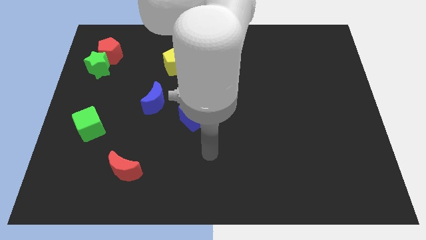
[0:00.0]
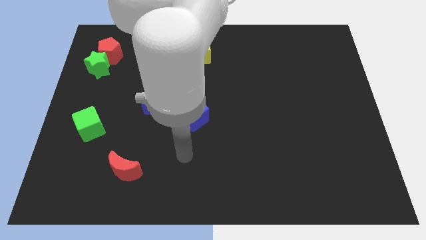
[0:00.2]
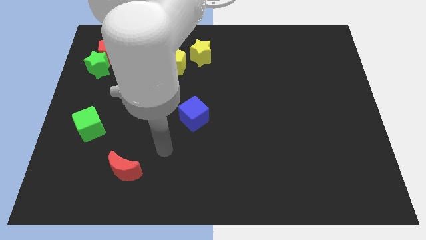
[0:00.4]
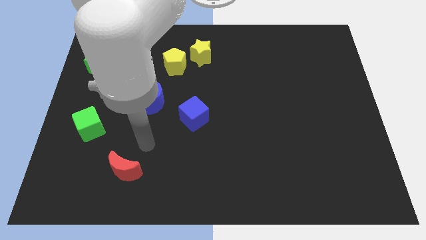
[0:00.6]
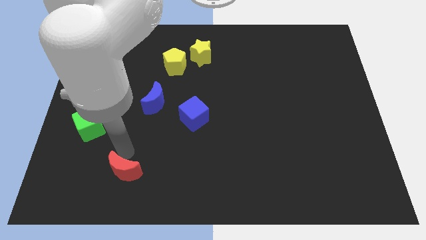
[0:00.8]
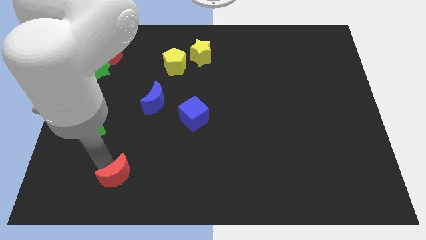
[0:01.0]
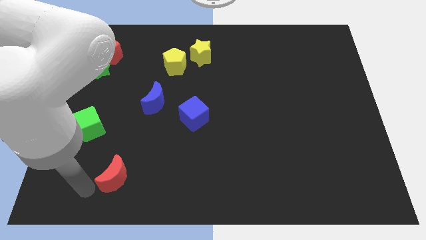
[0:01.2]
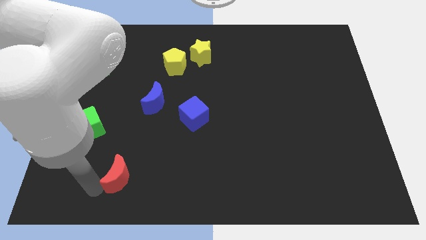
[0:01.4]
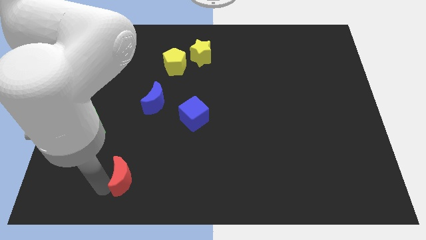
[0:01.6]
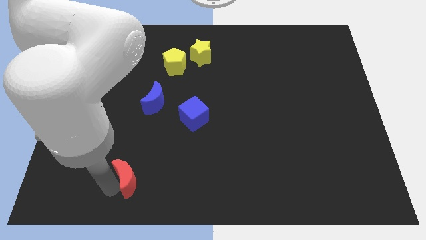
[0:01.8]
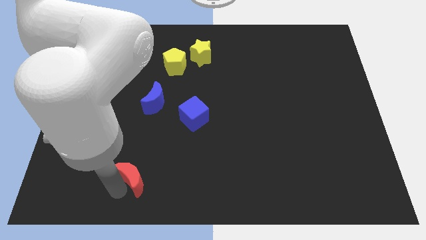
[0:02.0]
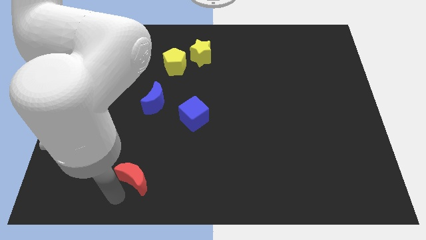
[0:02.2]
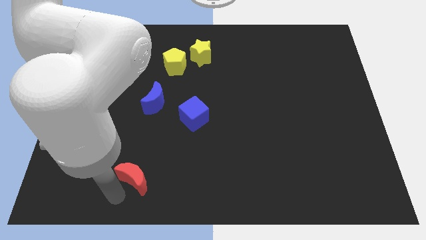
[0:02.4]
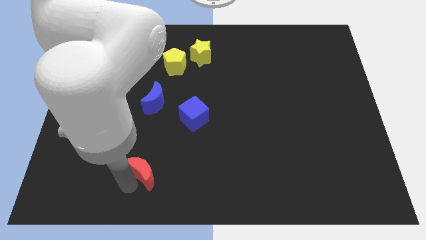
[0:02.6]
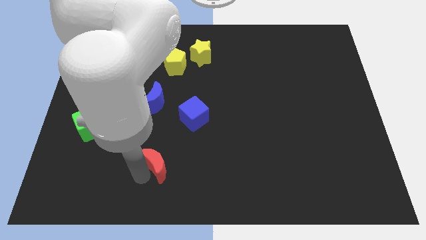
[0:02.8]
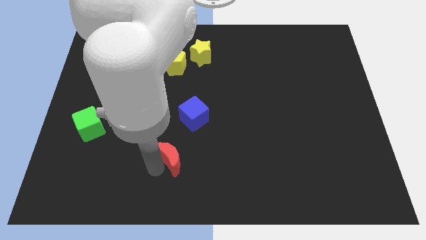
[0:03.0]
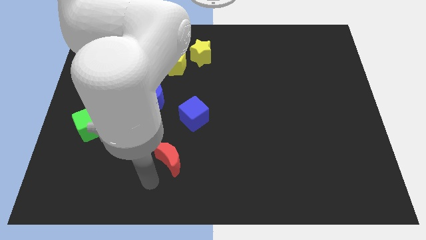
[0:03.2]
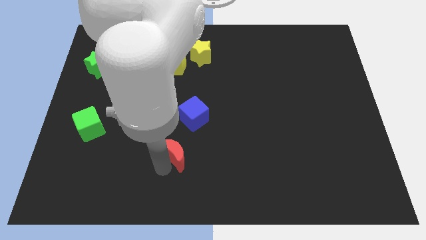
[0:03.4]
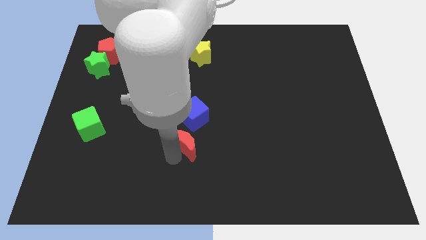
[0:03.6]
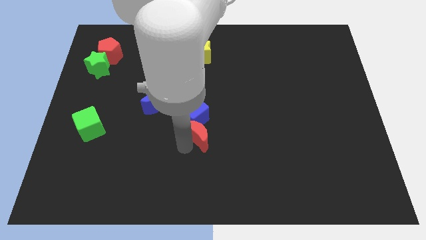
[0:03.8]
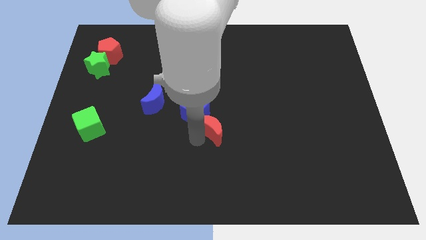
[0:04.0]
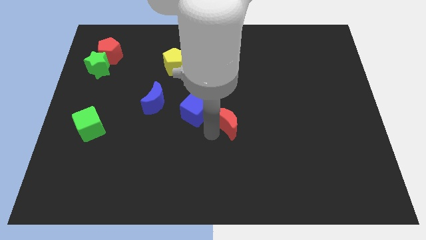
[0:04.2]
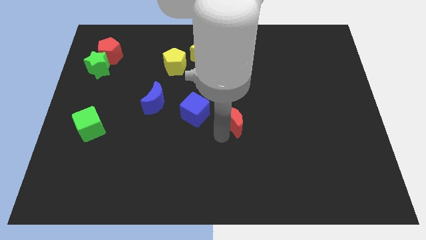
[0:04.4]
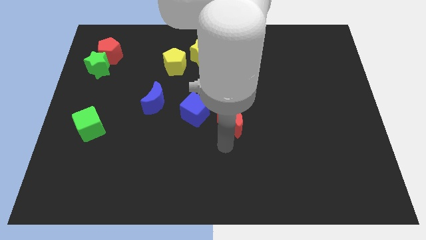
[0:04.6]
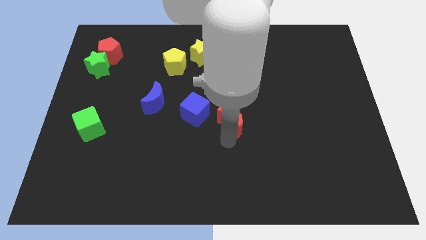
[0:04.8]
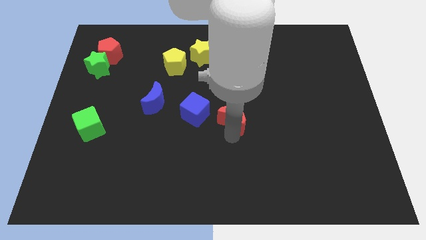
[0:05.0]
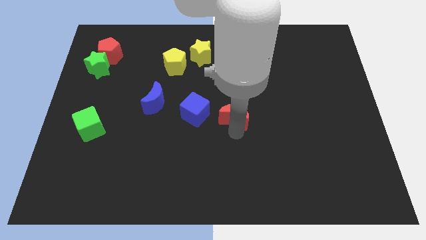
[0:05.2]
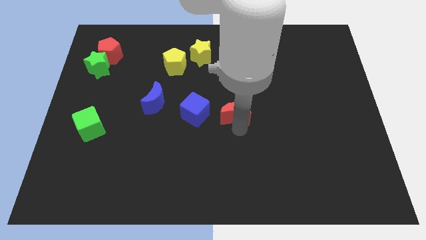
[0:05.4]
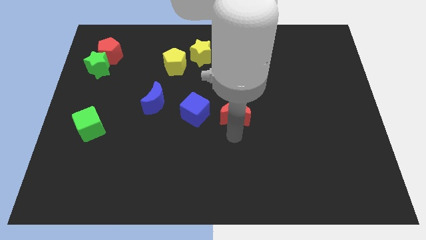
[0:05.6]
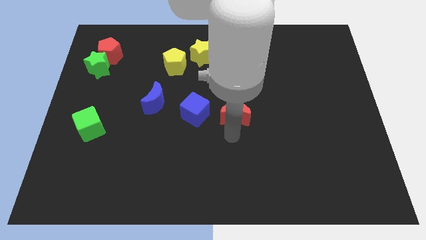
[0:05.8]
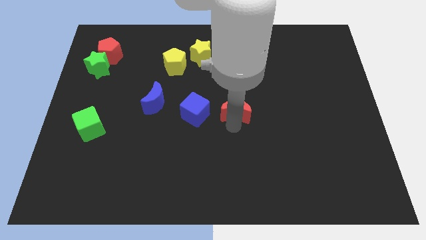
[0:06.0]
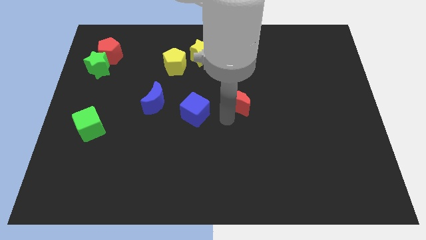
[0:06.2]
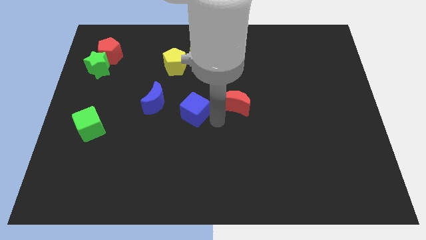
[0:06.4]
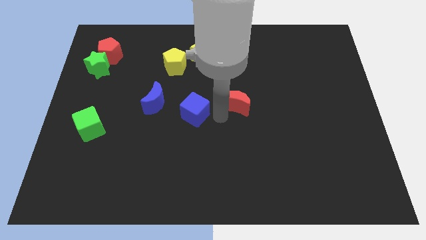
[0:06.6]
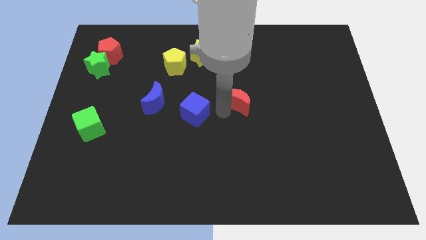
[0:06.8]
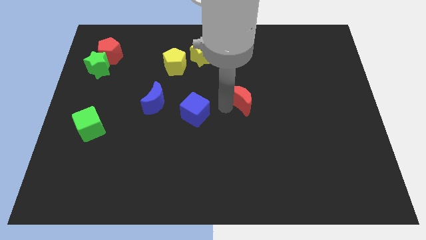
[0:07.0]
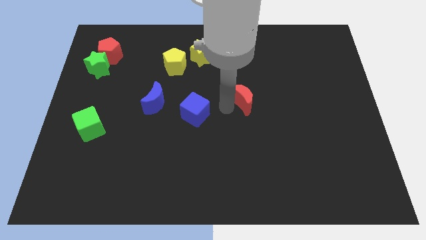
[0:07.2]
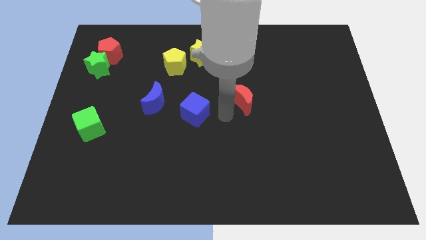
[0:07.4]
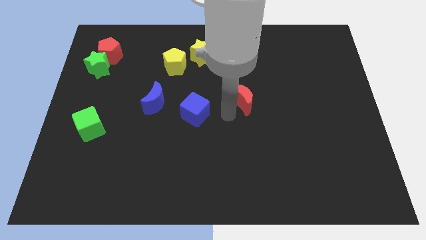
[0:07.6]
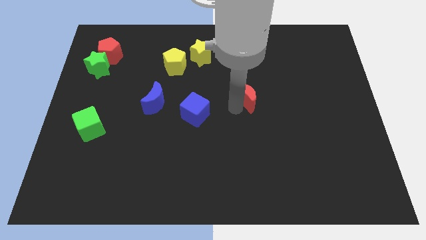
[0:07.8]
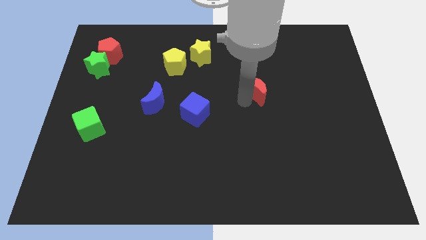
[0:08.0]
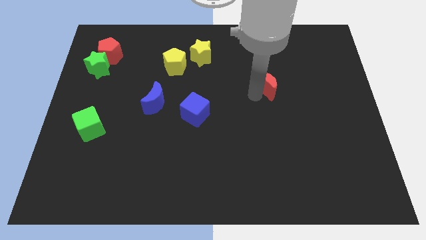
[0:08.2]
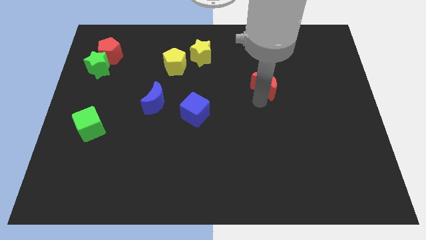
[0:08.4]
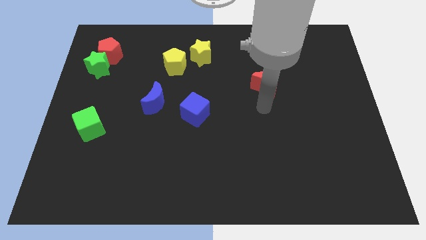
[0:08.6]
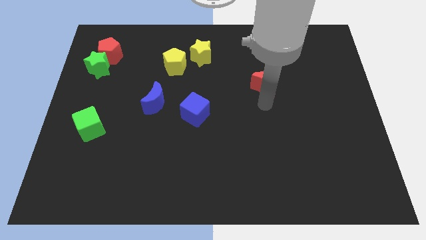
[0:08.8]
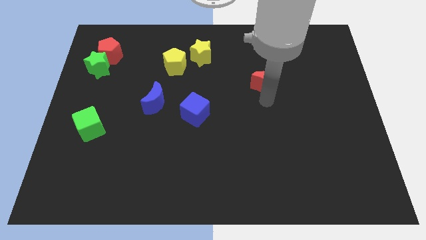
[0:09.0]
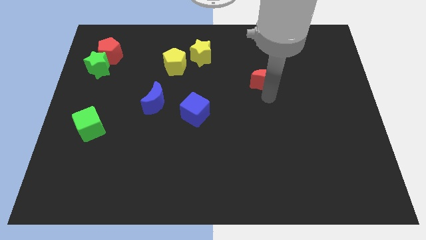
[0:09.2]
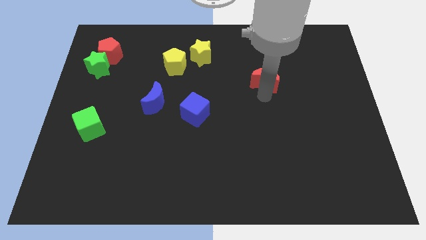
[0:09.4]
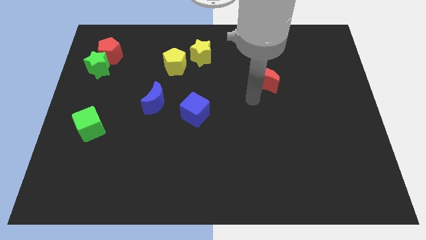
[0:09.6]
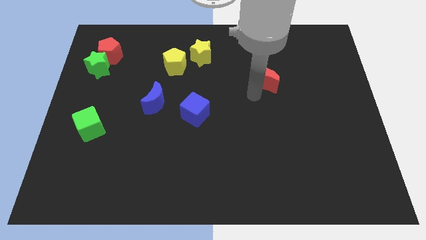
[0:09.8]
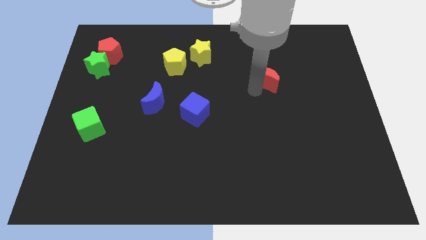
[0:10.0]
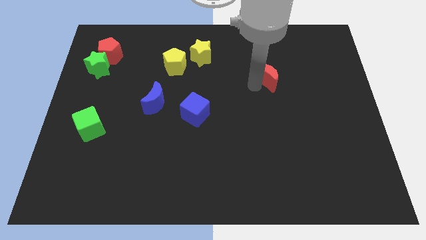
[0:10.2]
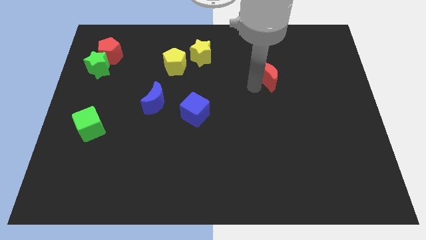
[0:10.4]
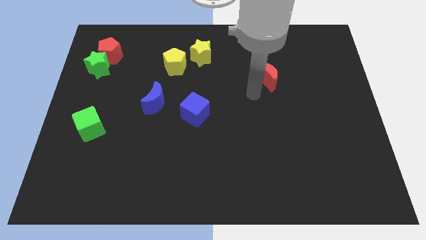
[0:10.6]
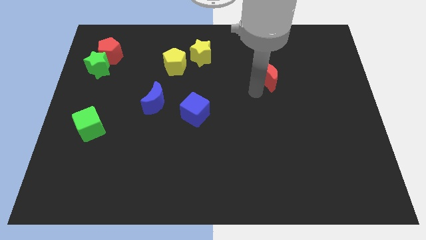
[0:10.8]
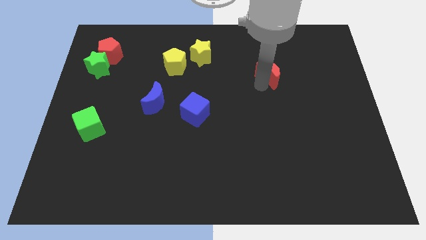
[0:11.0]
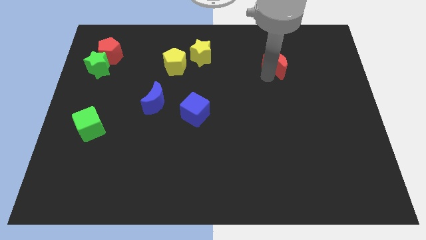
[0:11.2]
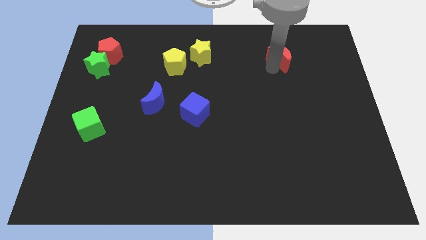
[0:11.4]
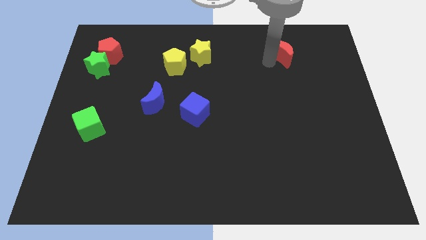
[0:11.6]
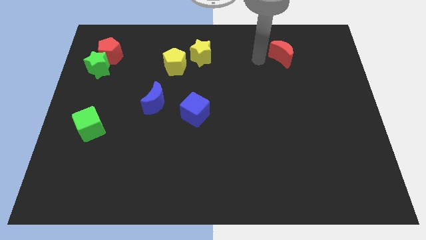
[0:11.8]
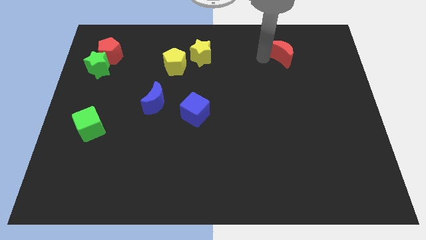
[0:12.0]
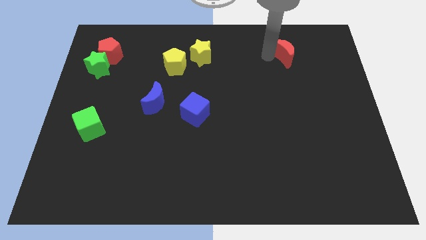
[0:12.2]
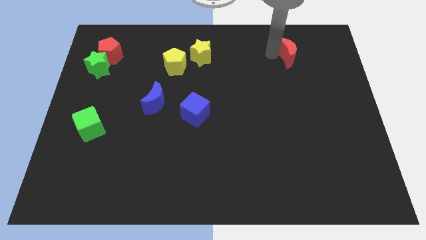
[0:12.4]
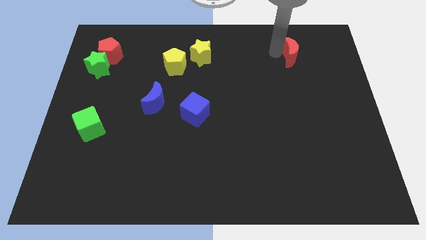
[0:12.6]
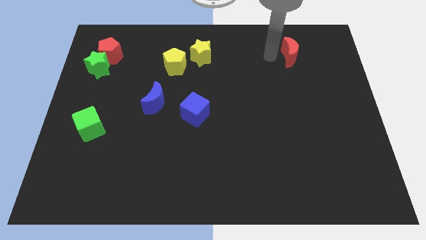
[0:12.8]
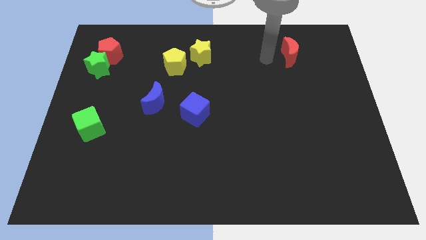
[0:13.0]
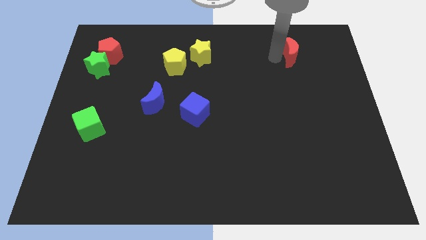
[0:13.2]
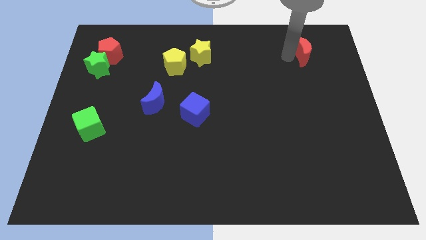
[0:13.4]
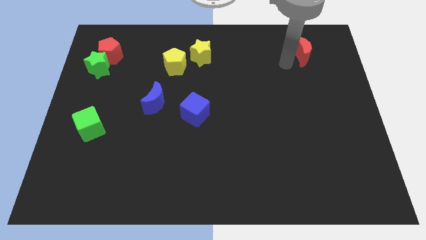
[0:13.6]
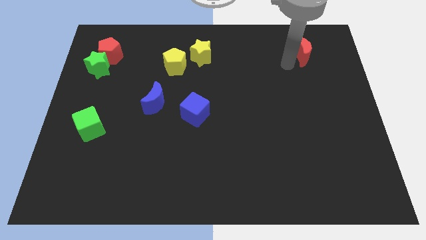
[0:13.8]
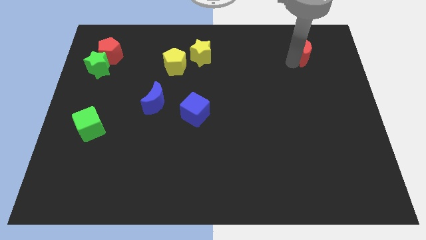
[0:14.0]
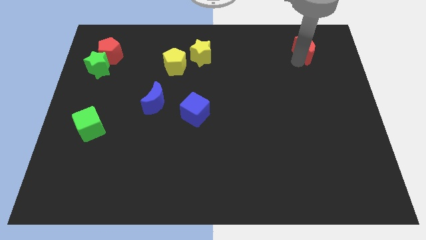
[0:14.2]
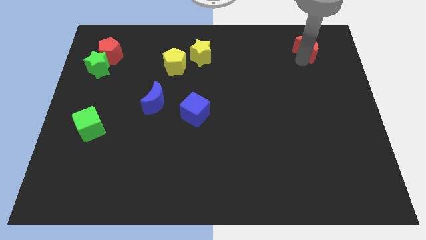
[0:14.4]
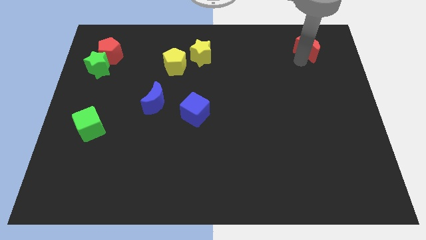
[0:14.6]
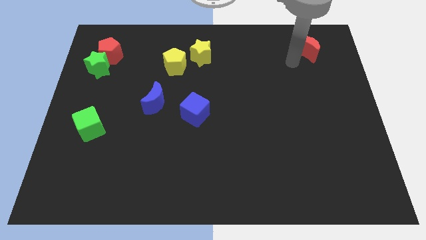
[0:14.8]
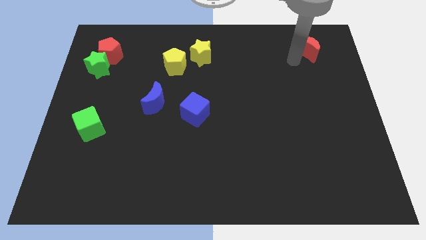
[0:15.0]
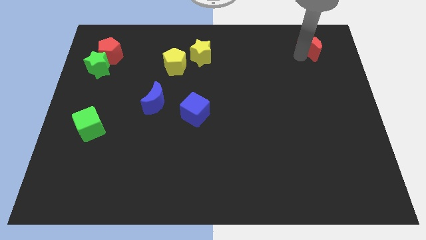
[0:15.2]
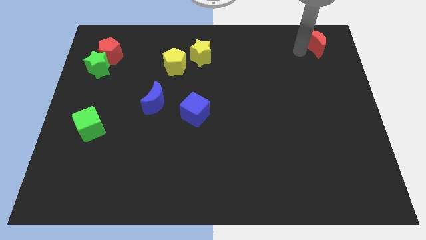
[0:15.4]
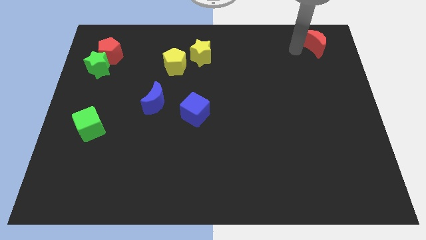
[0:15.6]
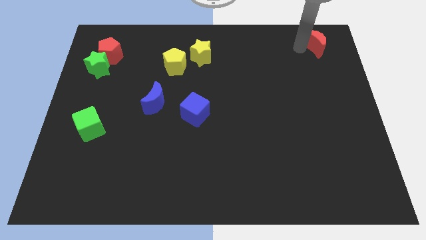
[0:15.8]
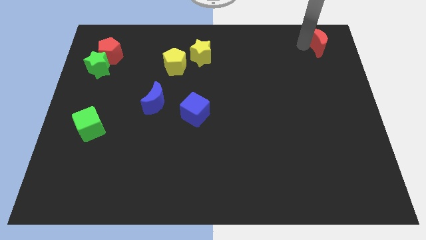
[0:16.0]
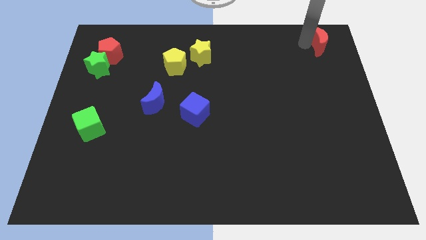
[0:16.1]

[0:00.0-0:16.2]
slide the red moon to the top right of the board
